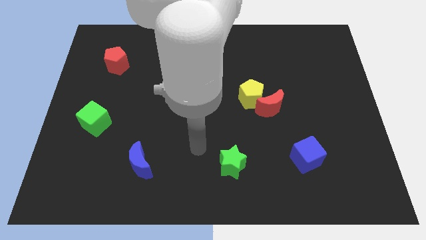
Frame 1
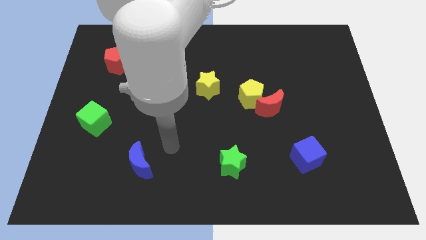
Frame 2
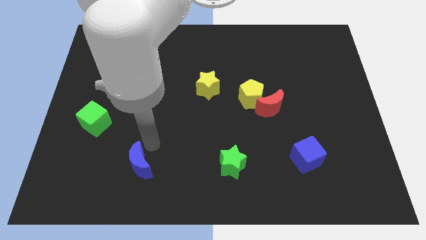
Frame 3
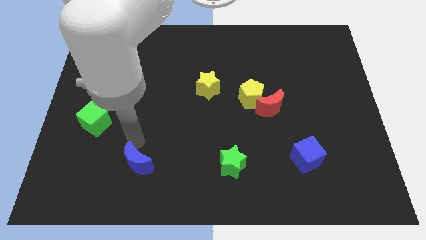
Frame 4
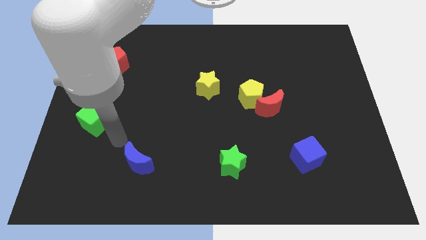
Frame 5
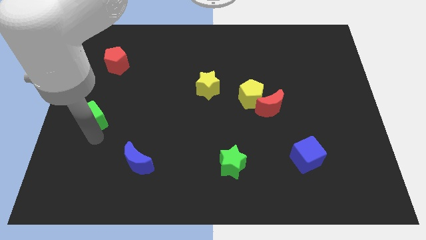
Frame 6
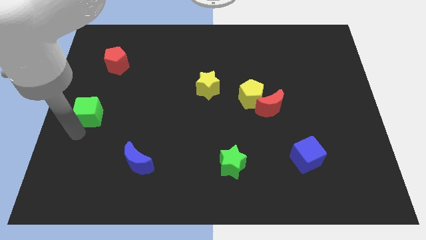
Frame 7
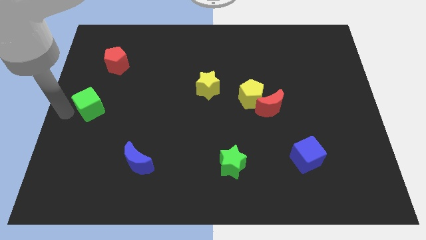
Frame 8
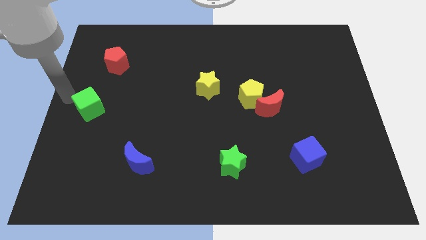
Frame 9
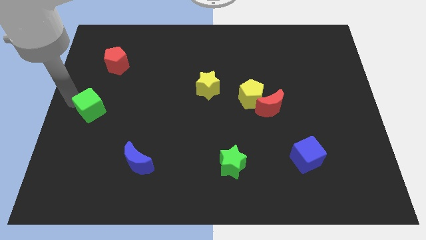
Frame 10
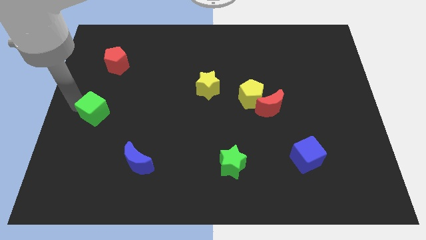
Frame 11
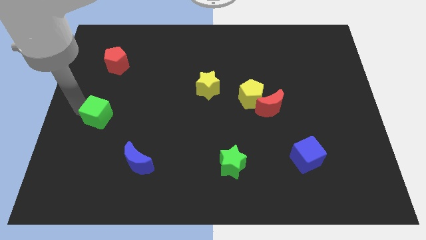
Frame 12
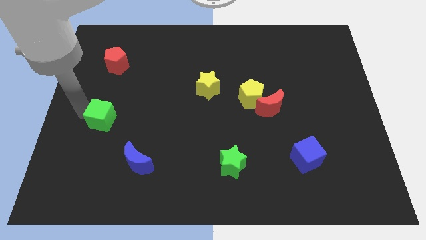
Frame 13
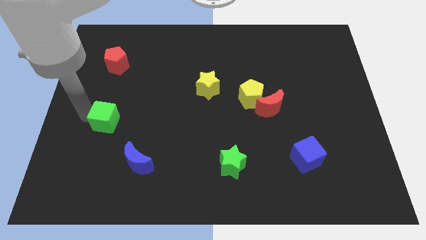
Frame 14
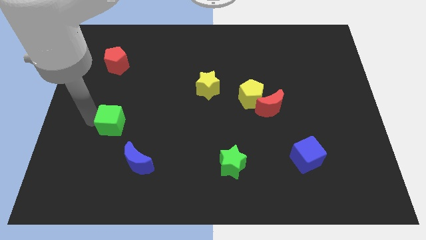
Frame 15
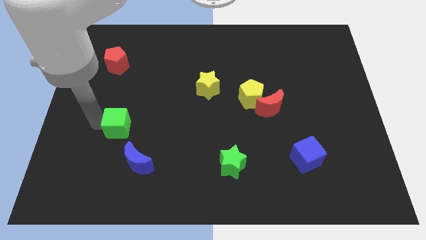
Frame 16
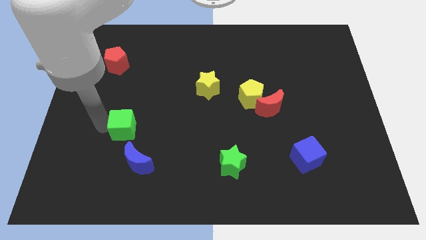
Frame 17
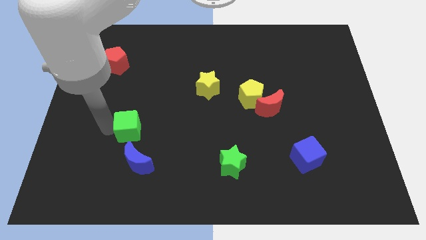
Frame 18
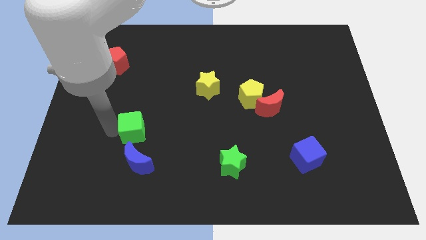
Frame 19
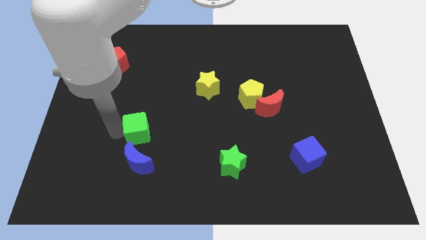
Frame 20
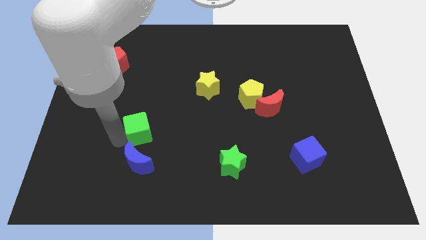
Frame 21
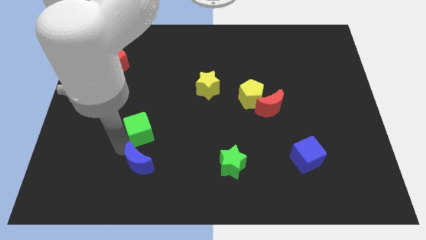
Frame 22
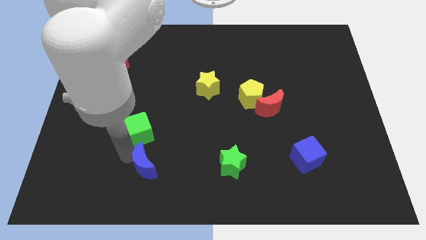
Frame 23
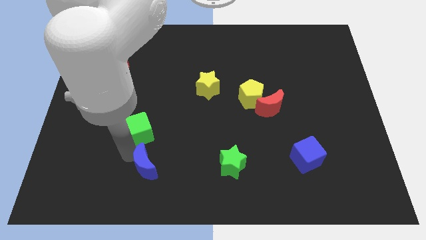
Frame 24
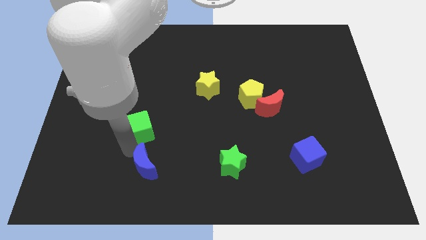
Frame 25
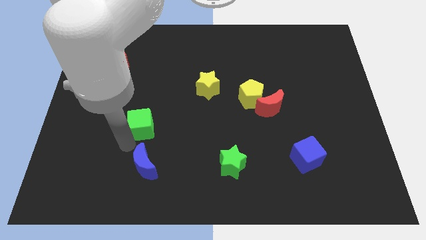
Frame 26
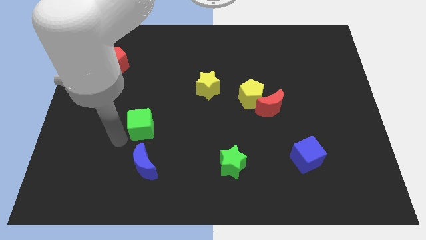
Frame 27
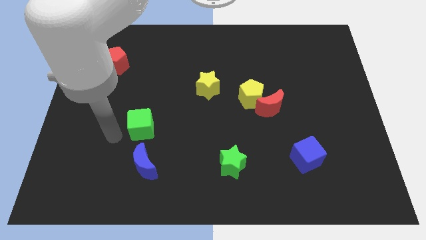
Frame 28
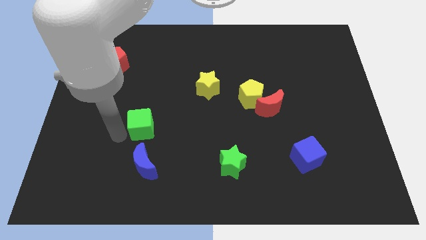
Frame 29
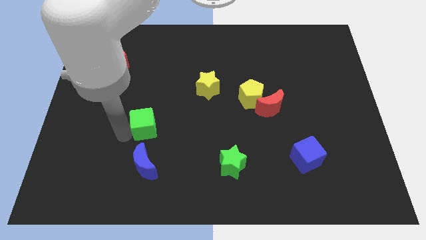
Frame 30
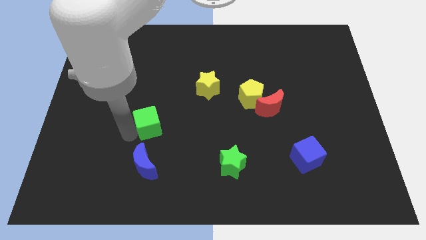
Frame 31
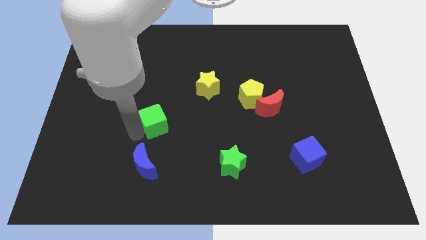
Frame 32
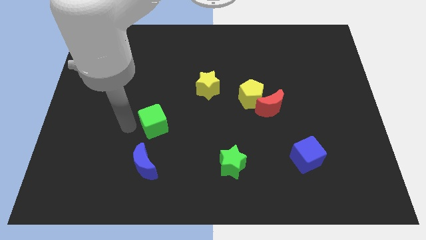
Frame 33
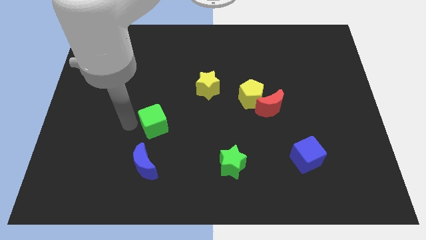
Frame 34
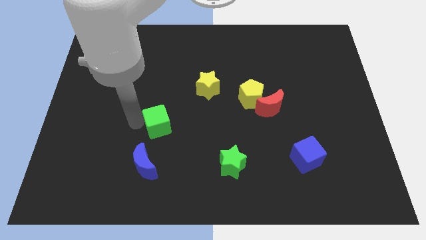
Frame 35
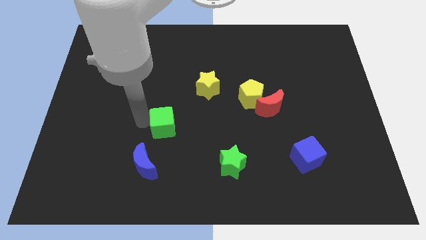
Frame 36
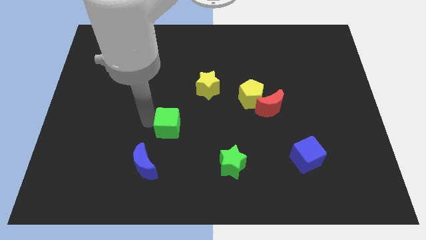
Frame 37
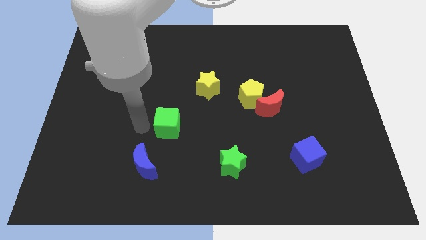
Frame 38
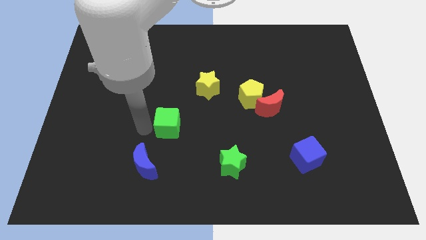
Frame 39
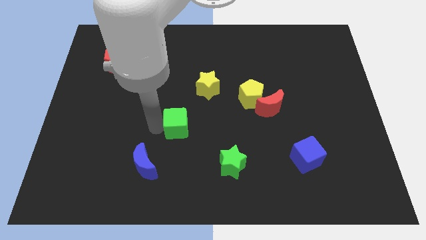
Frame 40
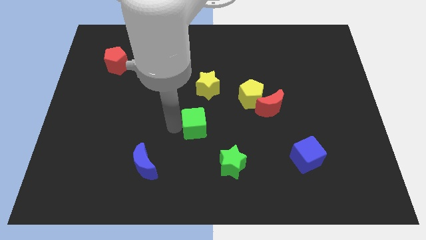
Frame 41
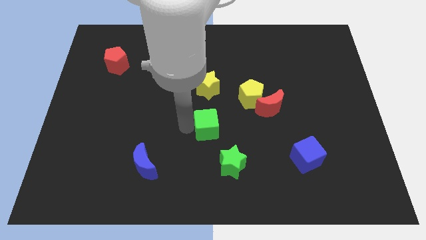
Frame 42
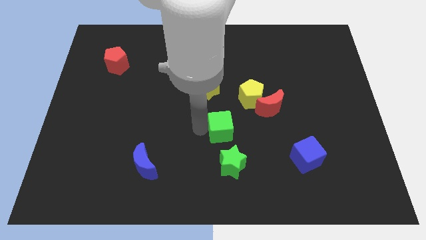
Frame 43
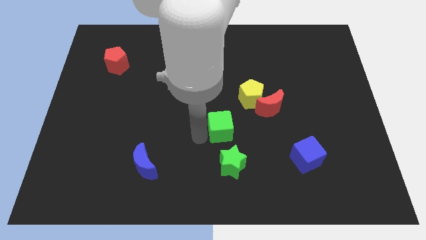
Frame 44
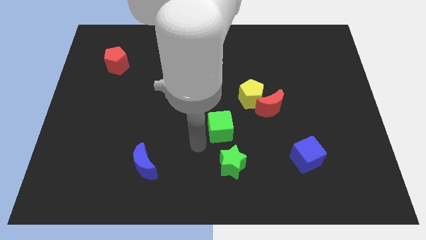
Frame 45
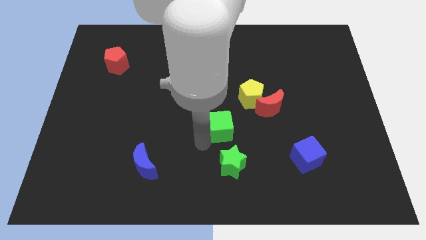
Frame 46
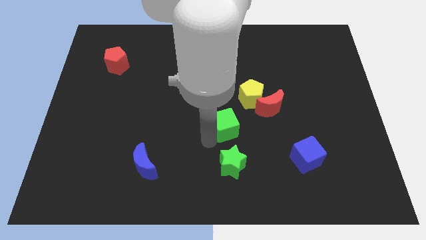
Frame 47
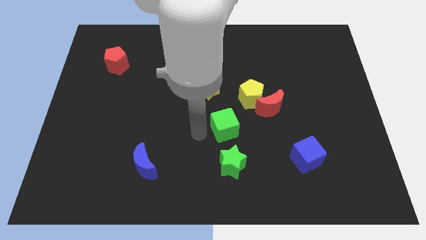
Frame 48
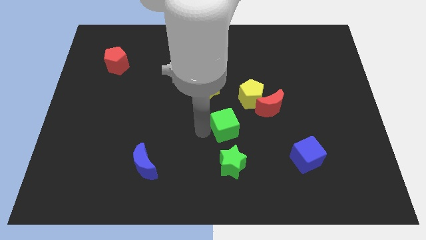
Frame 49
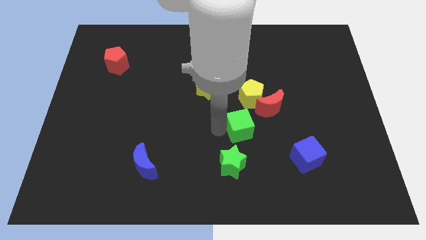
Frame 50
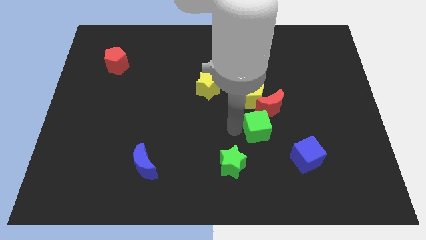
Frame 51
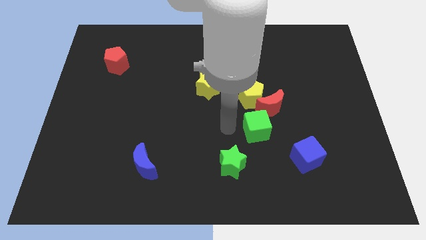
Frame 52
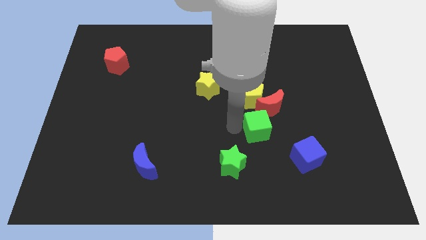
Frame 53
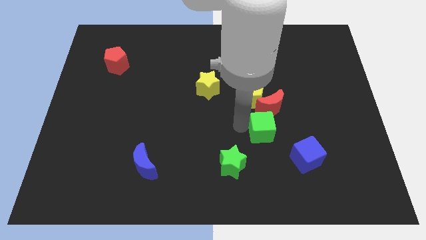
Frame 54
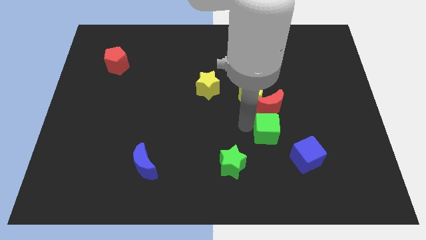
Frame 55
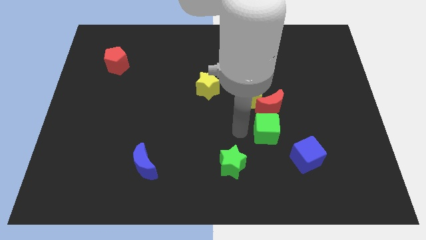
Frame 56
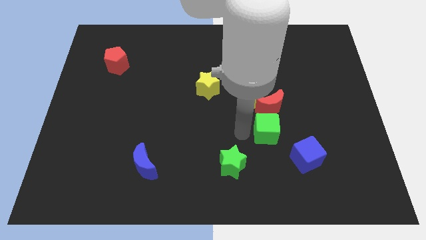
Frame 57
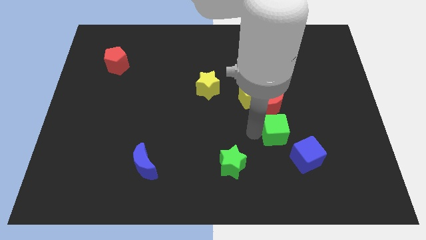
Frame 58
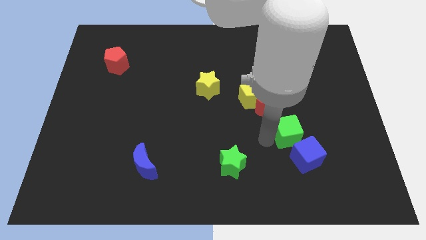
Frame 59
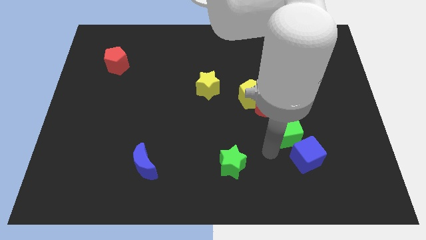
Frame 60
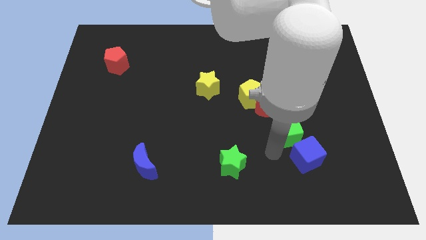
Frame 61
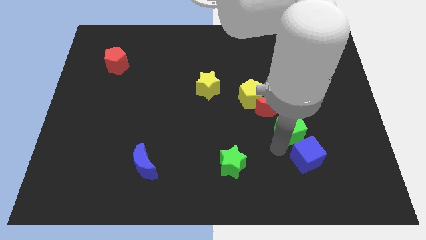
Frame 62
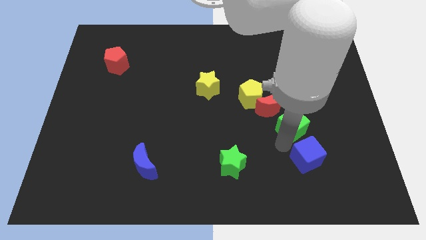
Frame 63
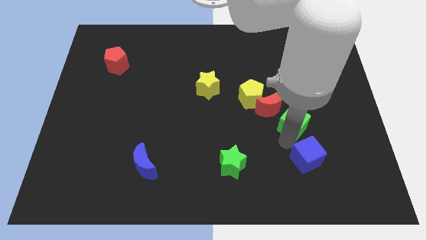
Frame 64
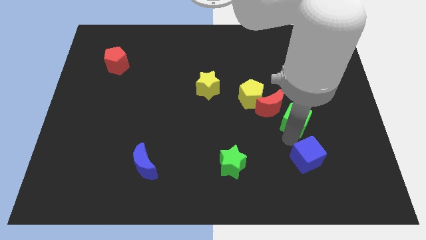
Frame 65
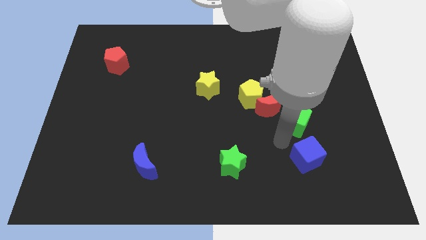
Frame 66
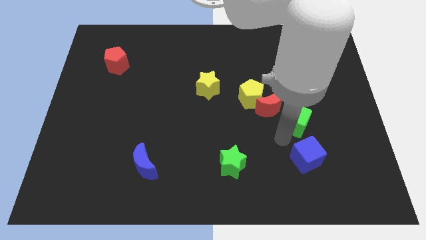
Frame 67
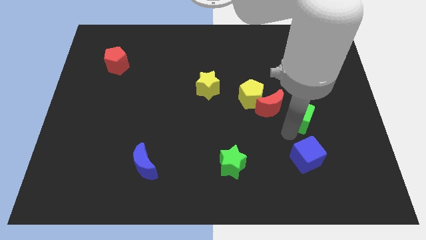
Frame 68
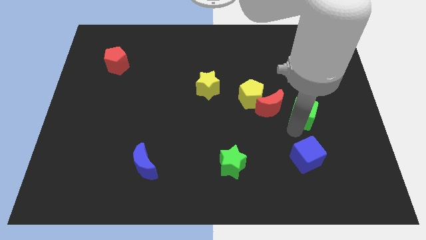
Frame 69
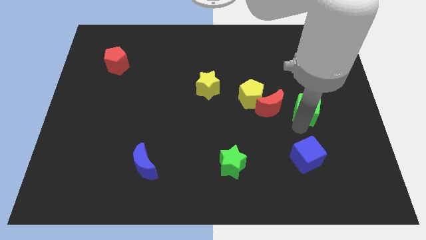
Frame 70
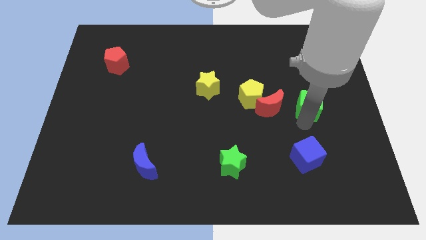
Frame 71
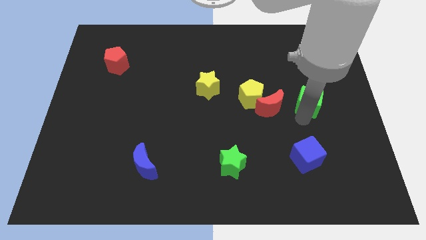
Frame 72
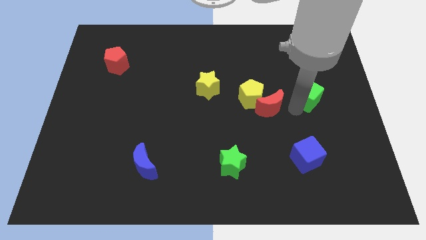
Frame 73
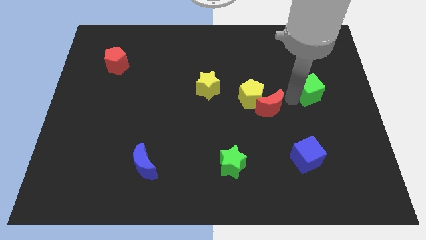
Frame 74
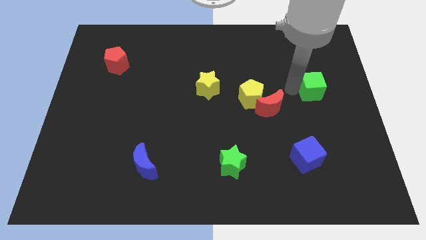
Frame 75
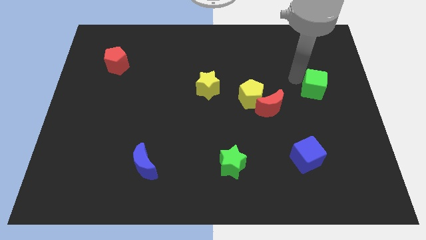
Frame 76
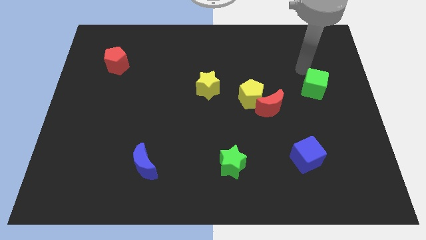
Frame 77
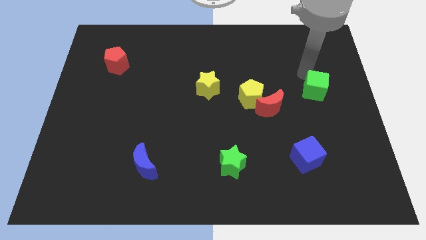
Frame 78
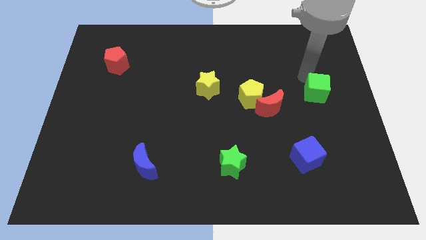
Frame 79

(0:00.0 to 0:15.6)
put the green cube to the right side of the board
